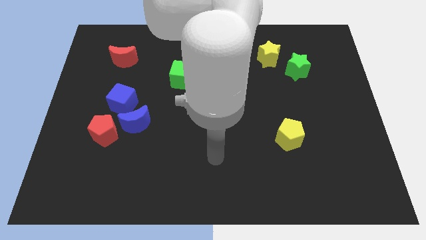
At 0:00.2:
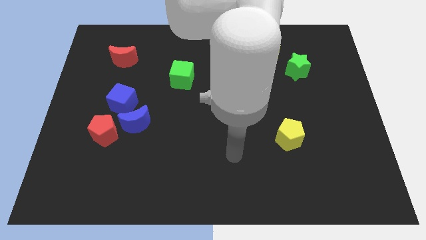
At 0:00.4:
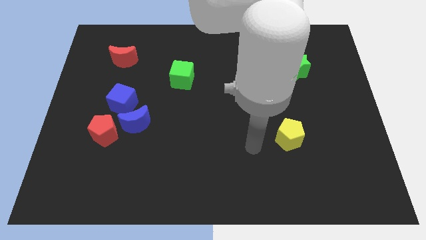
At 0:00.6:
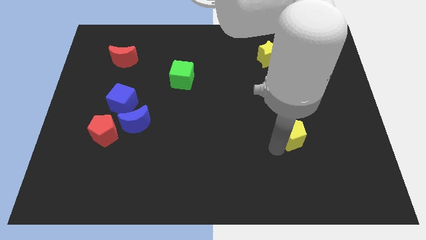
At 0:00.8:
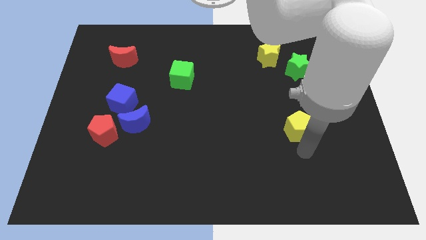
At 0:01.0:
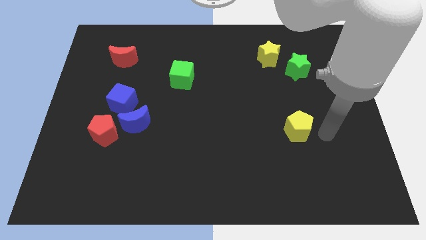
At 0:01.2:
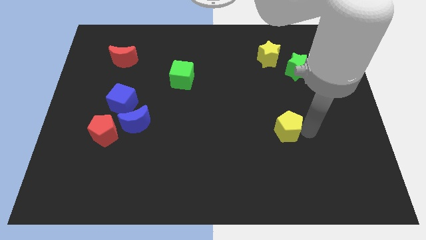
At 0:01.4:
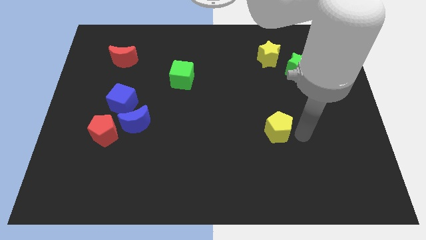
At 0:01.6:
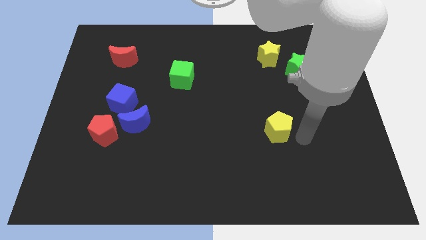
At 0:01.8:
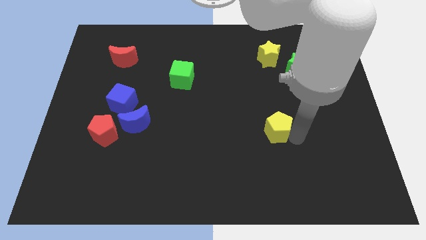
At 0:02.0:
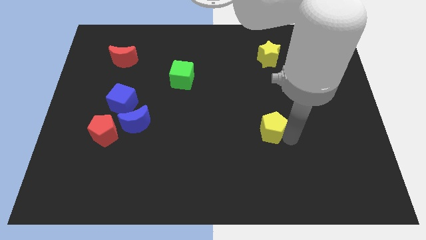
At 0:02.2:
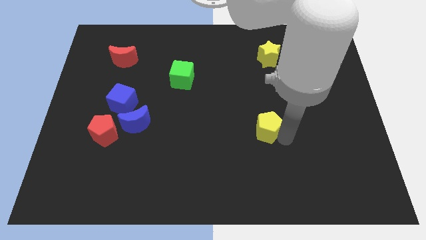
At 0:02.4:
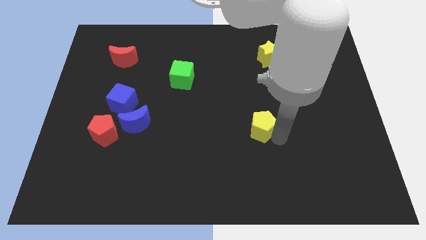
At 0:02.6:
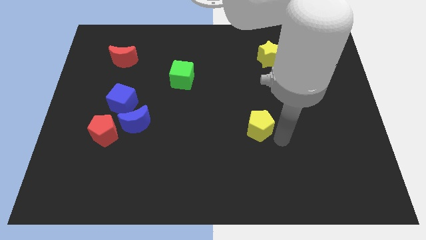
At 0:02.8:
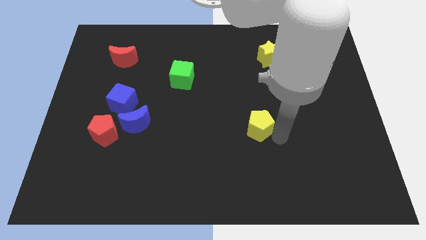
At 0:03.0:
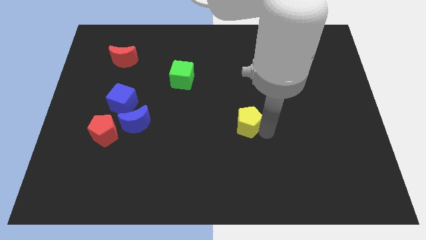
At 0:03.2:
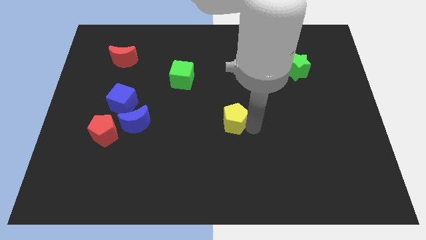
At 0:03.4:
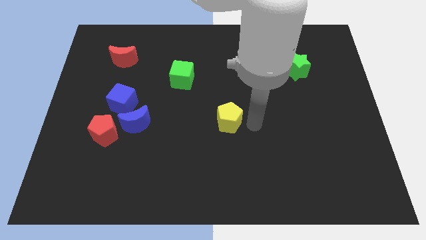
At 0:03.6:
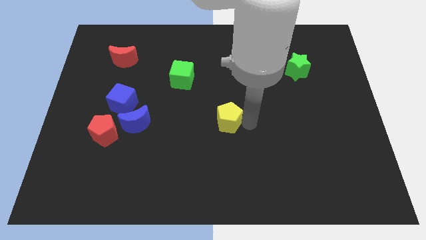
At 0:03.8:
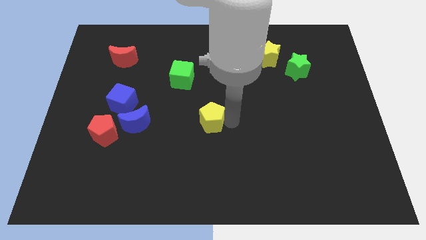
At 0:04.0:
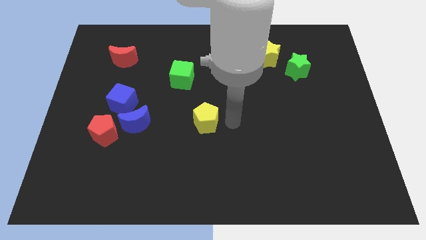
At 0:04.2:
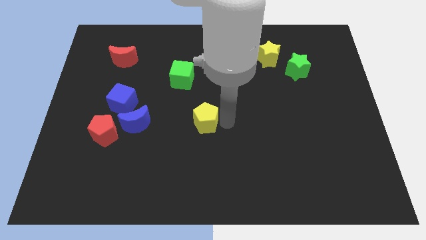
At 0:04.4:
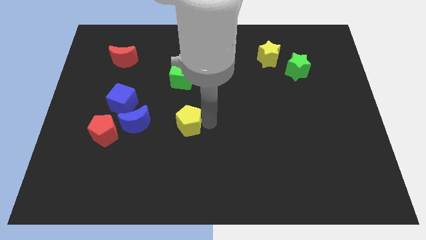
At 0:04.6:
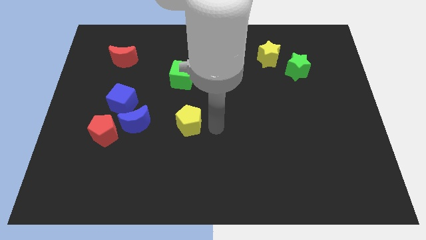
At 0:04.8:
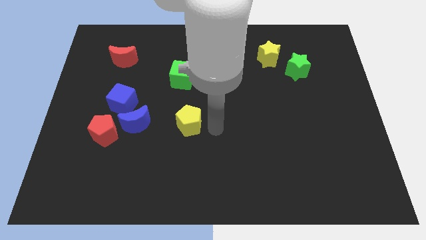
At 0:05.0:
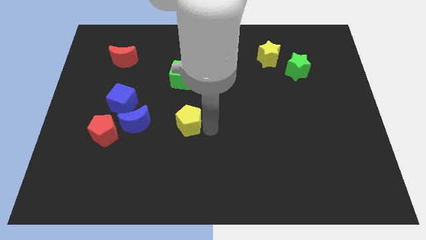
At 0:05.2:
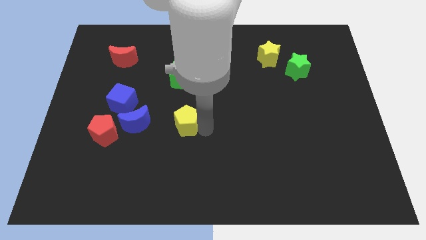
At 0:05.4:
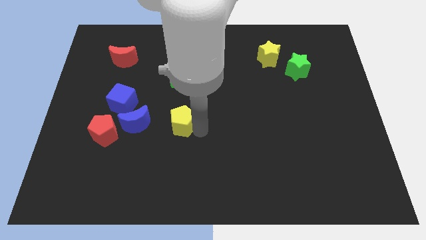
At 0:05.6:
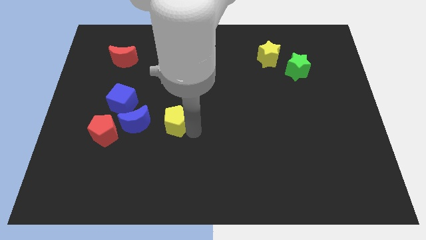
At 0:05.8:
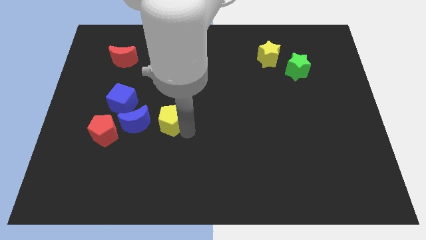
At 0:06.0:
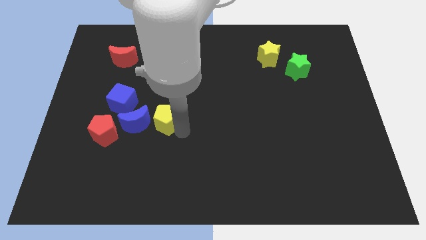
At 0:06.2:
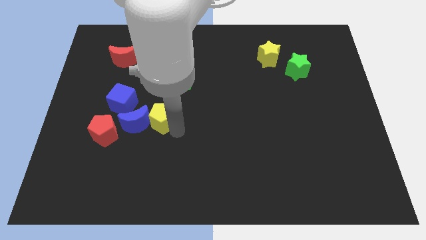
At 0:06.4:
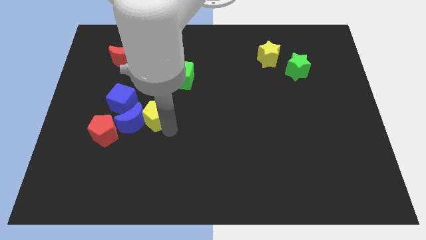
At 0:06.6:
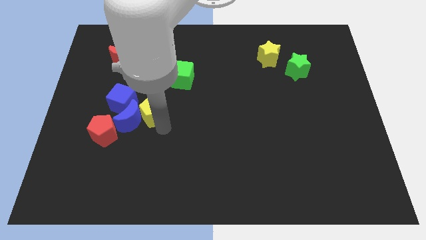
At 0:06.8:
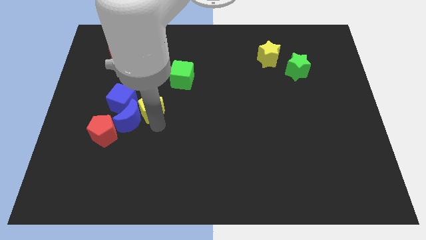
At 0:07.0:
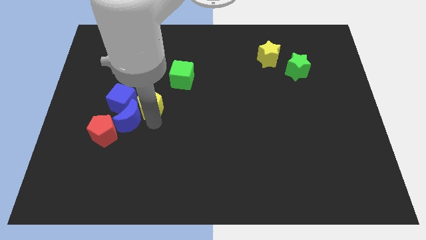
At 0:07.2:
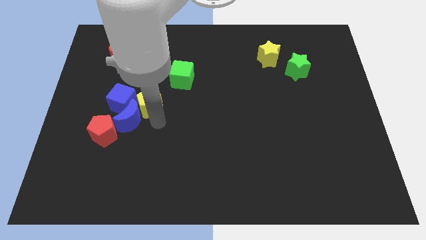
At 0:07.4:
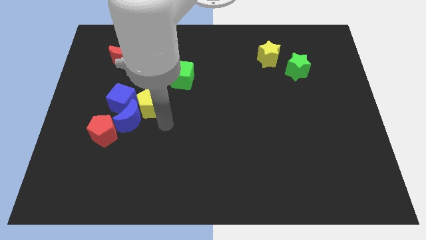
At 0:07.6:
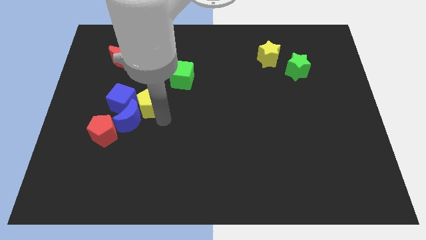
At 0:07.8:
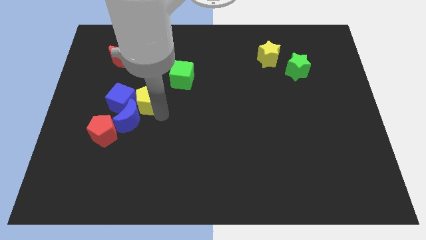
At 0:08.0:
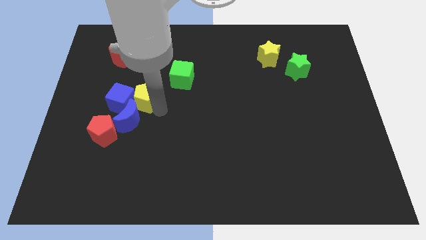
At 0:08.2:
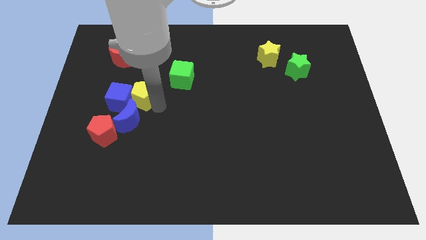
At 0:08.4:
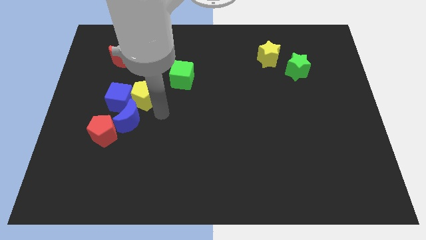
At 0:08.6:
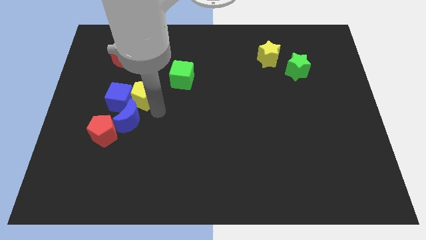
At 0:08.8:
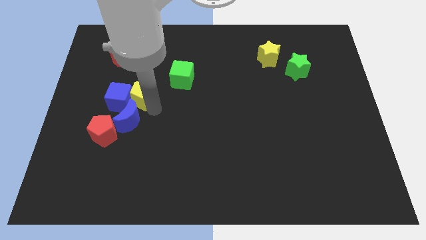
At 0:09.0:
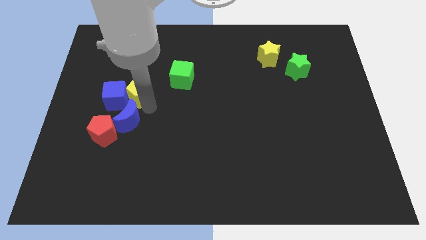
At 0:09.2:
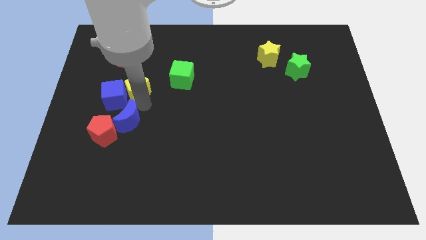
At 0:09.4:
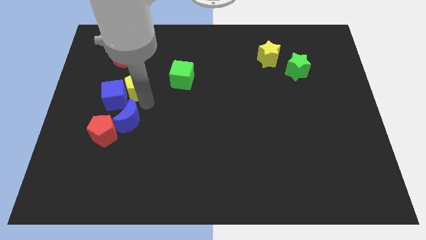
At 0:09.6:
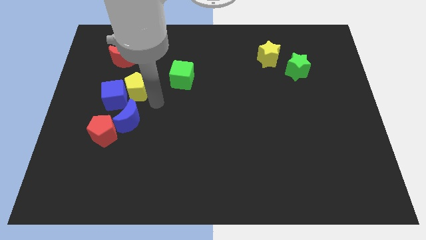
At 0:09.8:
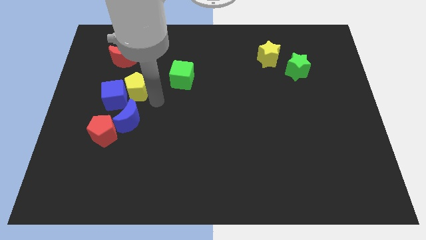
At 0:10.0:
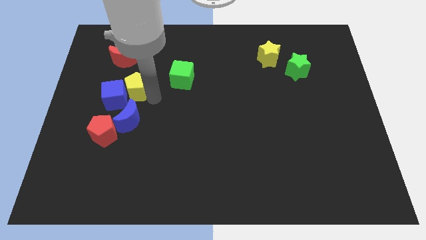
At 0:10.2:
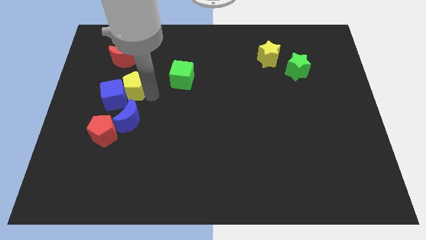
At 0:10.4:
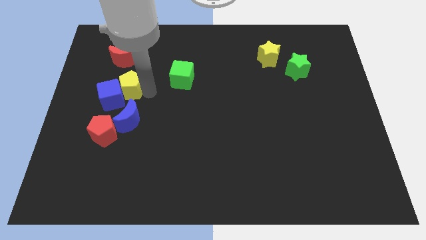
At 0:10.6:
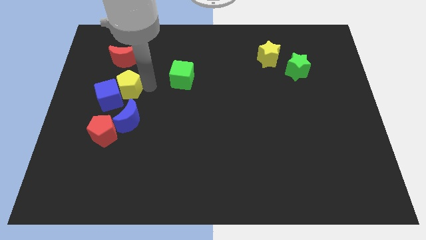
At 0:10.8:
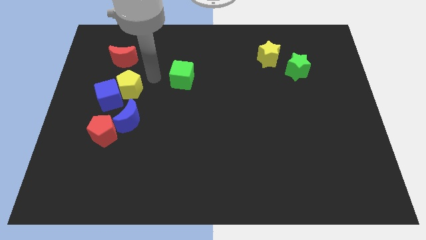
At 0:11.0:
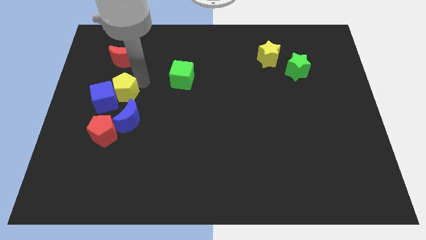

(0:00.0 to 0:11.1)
push the yellow pentagon diagonally up and to the left of the blue moon

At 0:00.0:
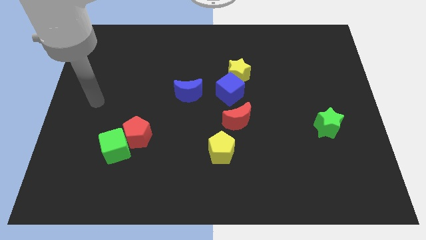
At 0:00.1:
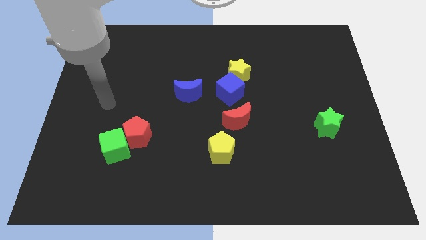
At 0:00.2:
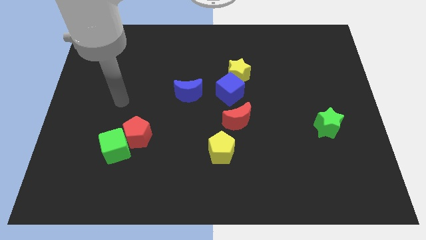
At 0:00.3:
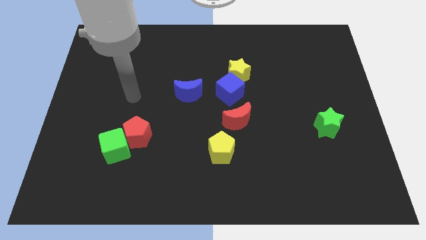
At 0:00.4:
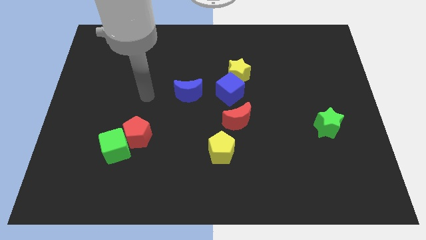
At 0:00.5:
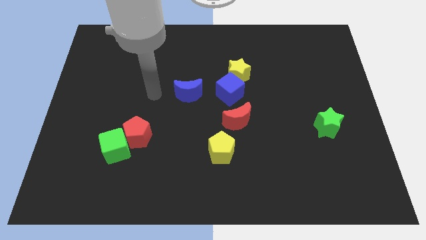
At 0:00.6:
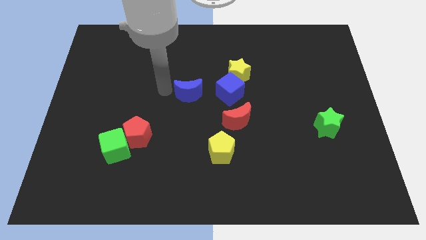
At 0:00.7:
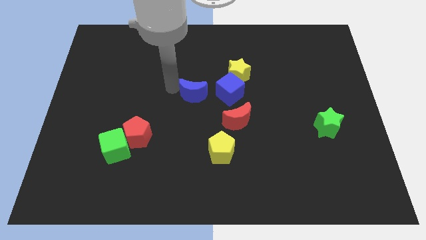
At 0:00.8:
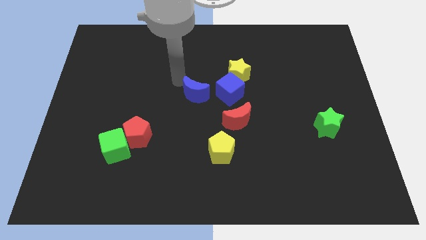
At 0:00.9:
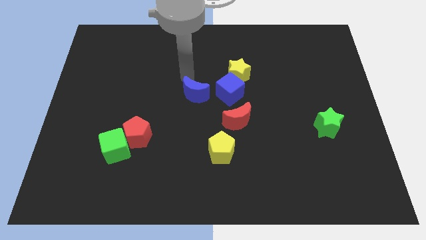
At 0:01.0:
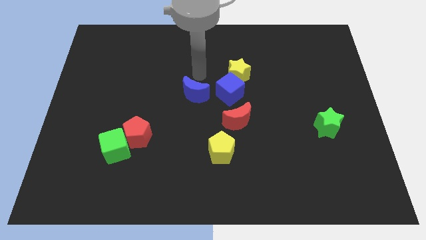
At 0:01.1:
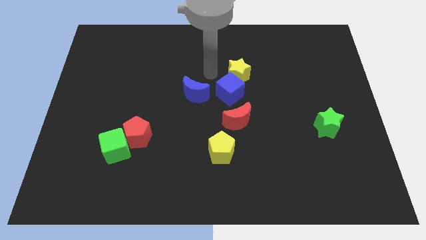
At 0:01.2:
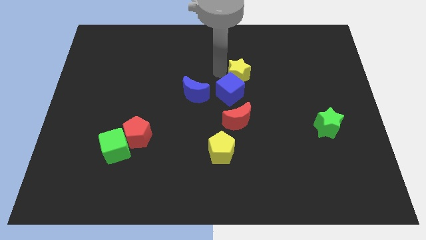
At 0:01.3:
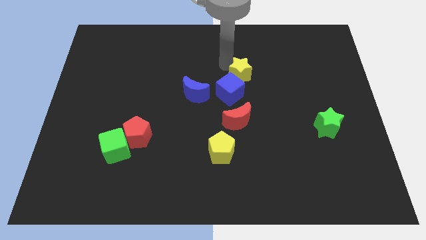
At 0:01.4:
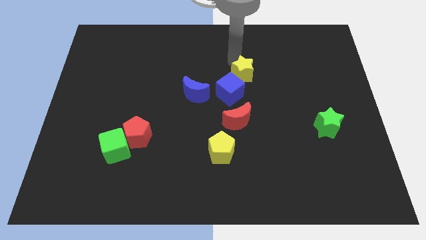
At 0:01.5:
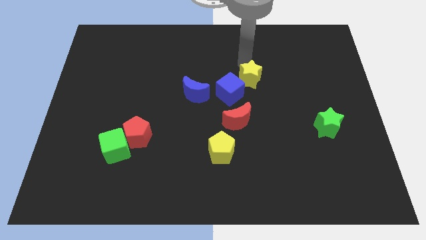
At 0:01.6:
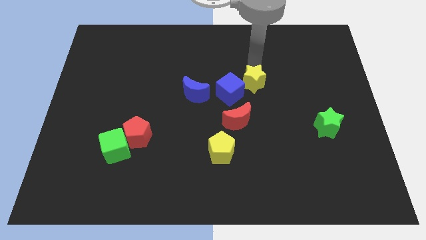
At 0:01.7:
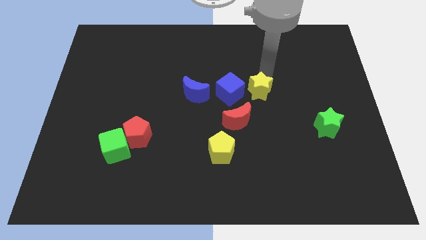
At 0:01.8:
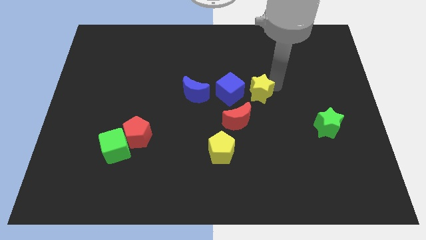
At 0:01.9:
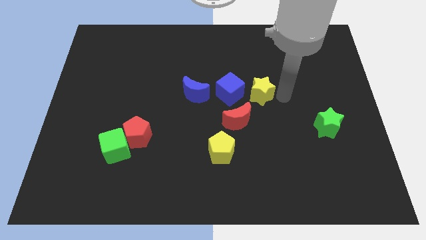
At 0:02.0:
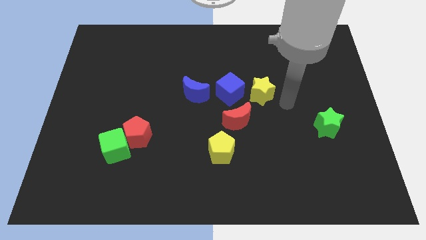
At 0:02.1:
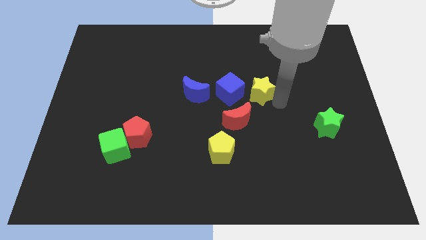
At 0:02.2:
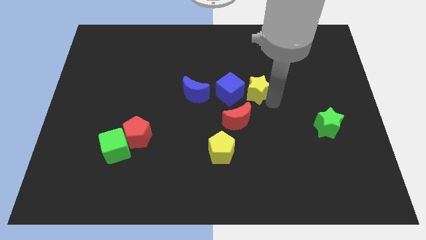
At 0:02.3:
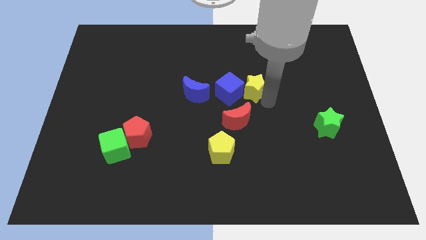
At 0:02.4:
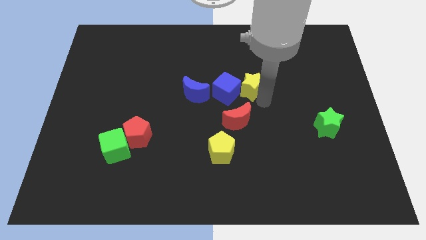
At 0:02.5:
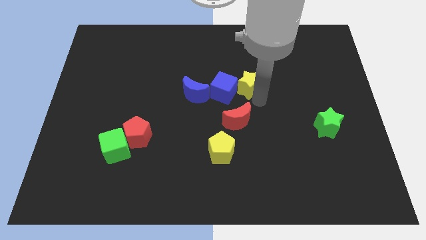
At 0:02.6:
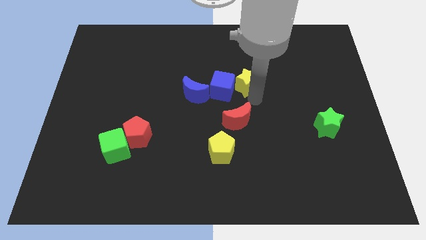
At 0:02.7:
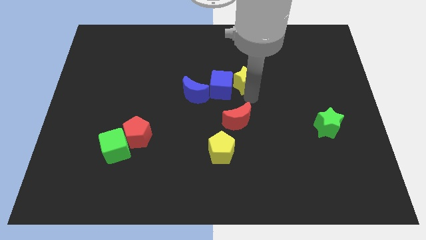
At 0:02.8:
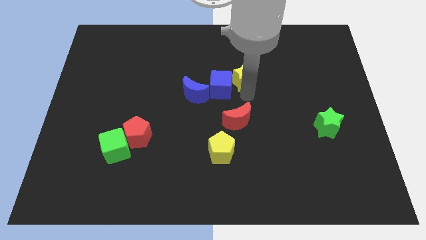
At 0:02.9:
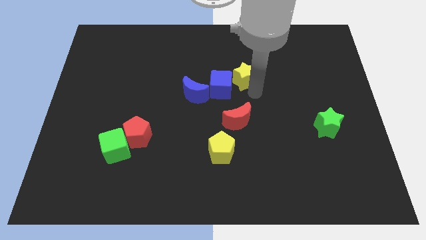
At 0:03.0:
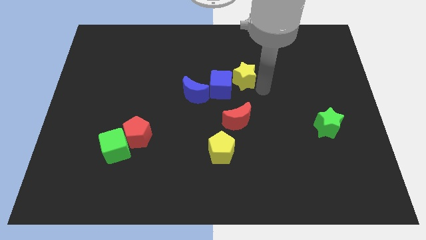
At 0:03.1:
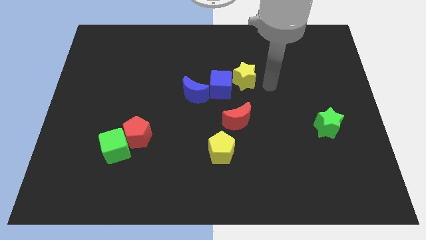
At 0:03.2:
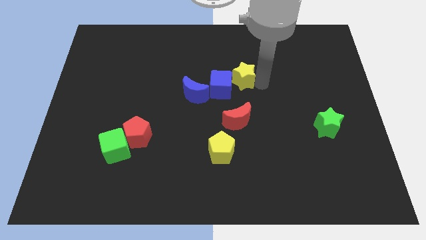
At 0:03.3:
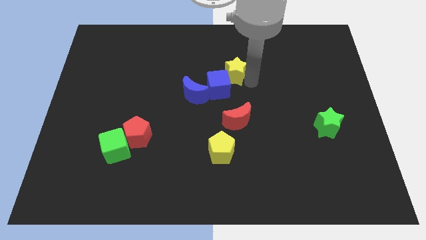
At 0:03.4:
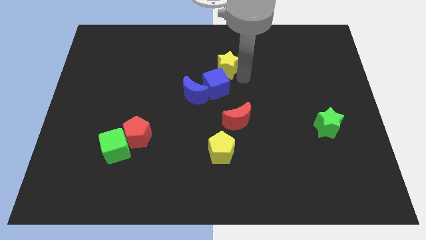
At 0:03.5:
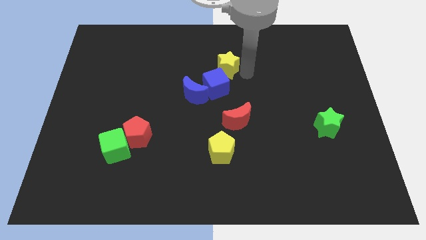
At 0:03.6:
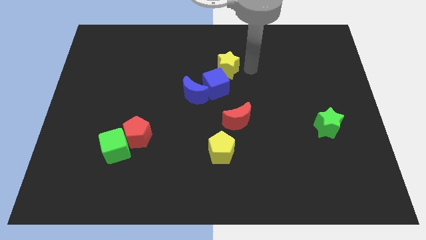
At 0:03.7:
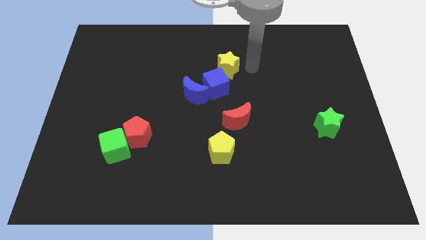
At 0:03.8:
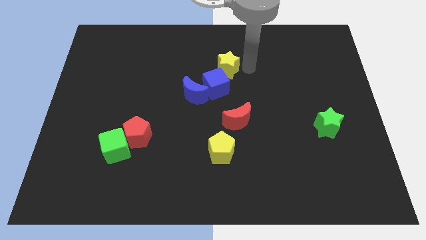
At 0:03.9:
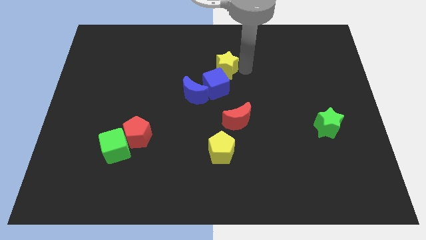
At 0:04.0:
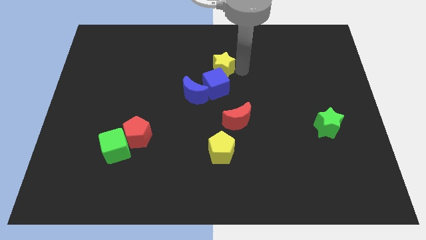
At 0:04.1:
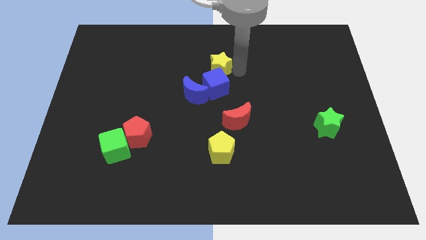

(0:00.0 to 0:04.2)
move the yellow star to the top left side of the blue cube
